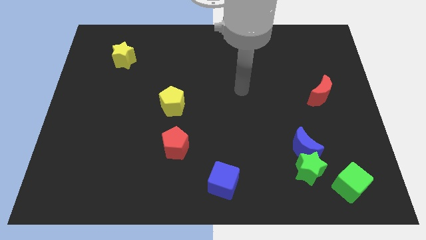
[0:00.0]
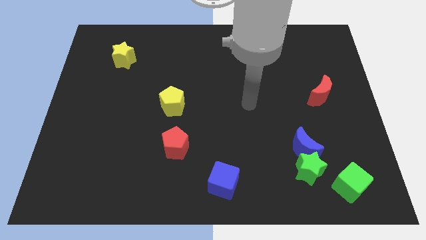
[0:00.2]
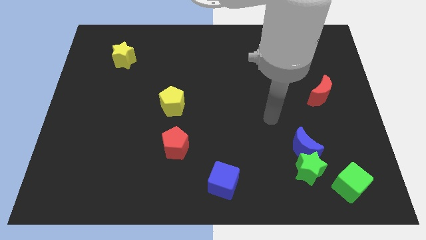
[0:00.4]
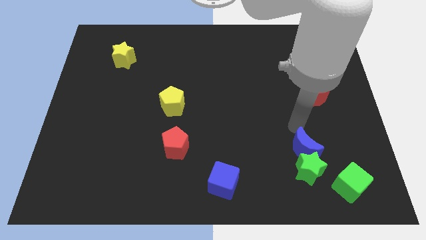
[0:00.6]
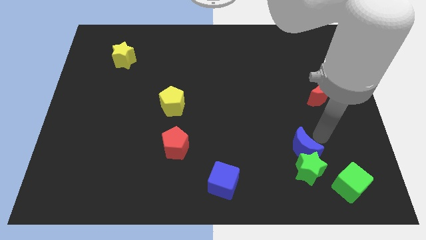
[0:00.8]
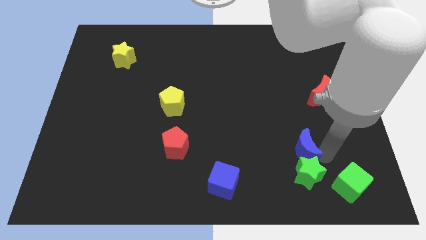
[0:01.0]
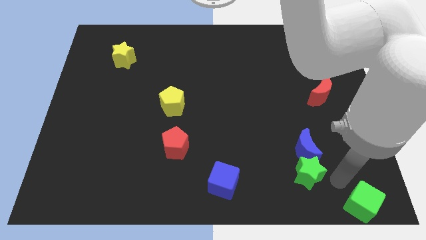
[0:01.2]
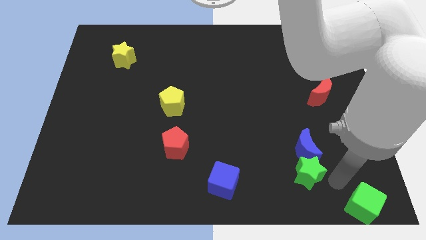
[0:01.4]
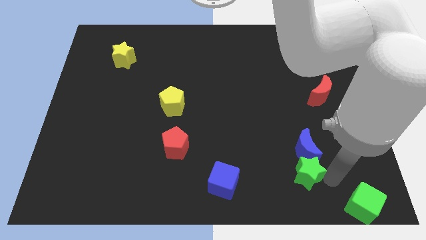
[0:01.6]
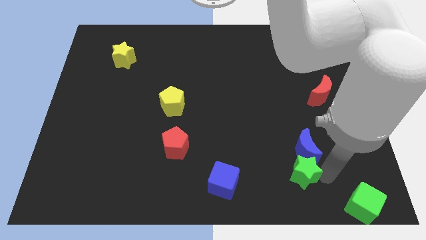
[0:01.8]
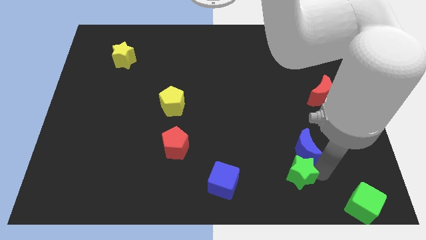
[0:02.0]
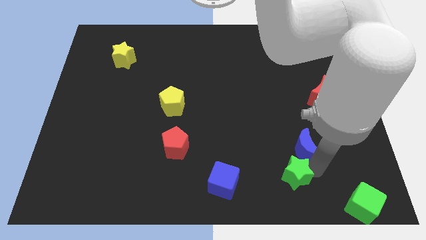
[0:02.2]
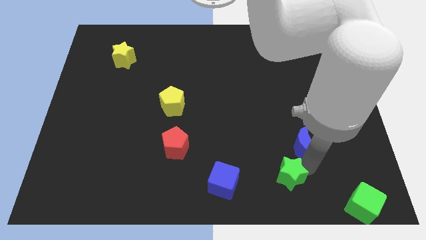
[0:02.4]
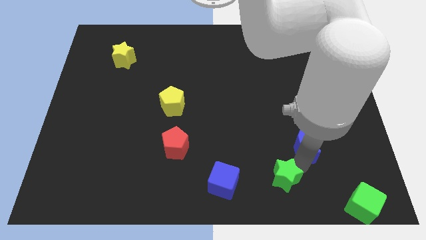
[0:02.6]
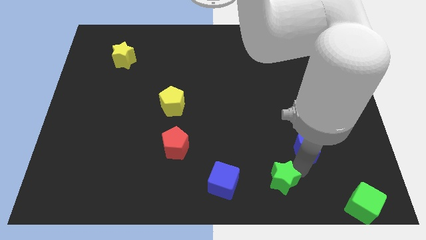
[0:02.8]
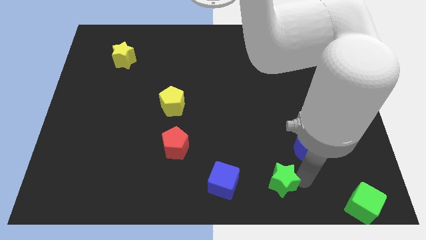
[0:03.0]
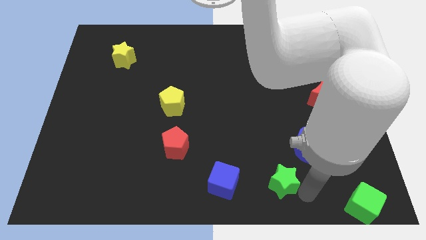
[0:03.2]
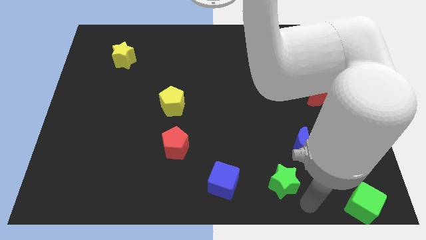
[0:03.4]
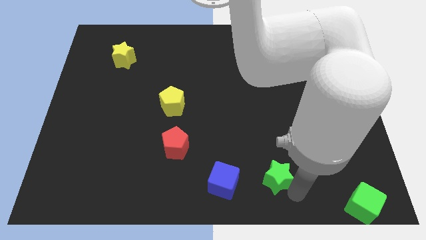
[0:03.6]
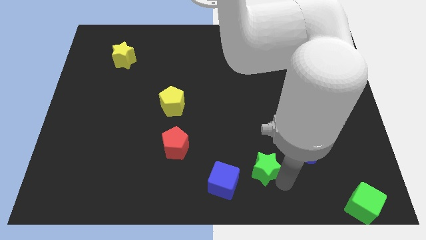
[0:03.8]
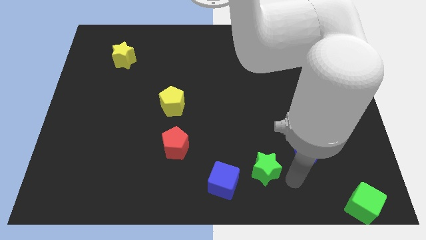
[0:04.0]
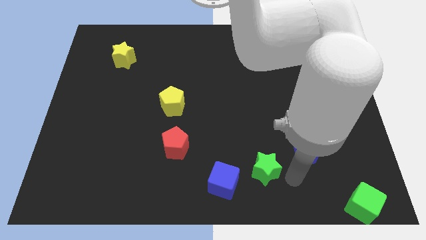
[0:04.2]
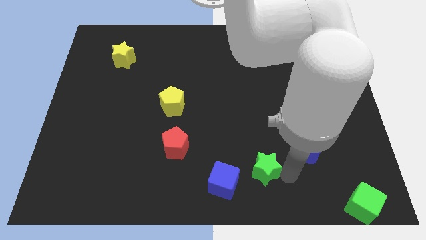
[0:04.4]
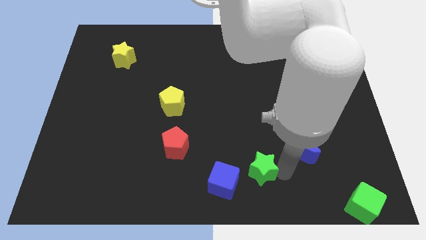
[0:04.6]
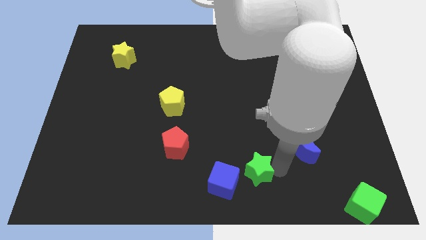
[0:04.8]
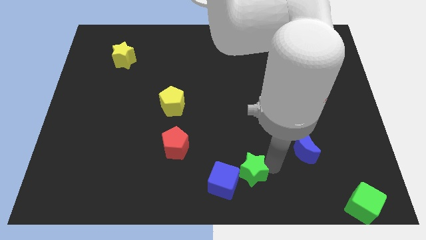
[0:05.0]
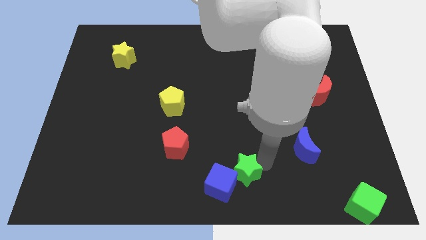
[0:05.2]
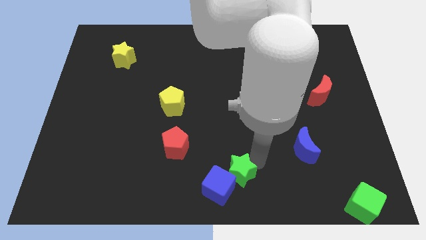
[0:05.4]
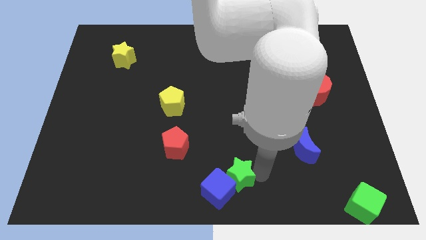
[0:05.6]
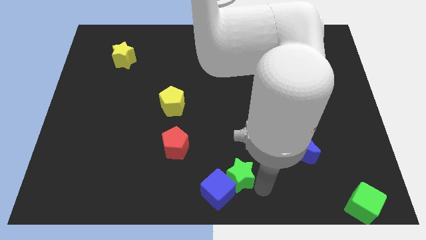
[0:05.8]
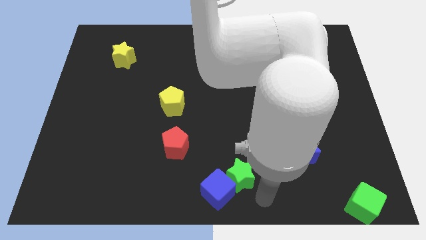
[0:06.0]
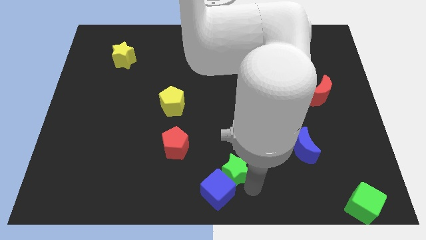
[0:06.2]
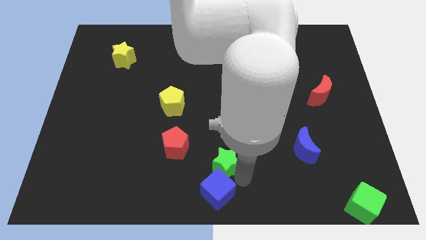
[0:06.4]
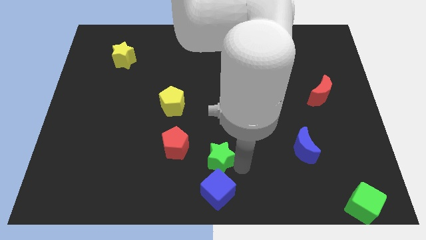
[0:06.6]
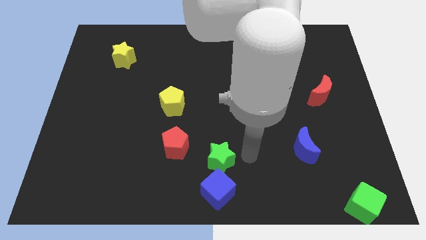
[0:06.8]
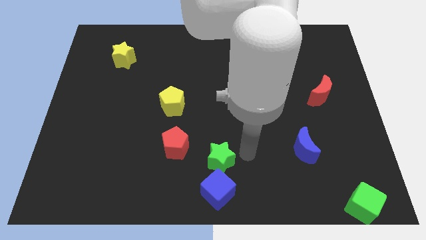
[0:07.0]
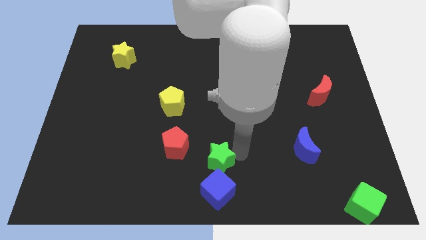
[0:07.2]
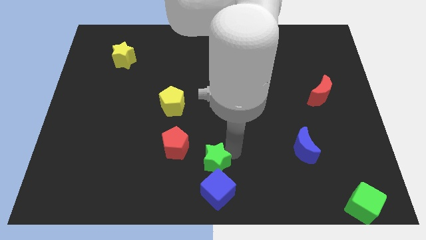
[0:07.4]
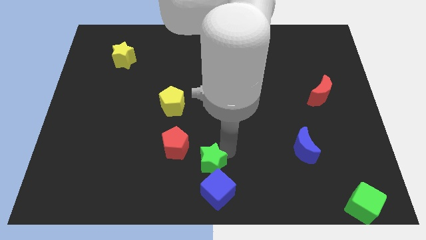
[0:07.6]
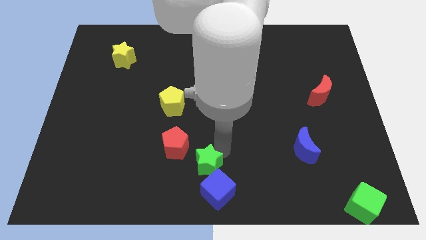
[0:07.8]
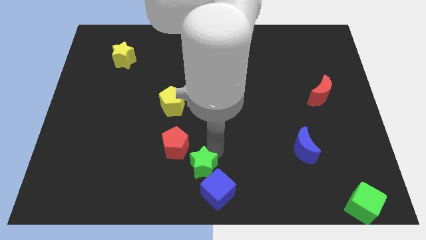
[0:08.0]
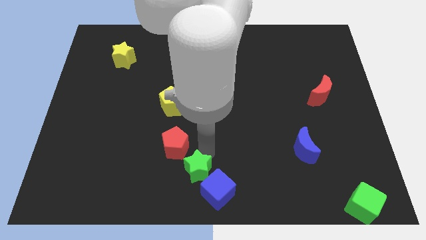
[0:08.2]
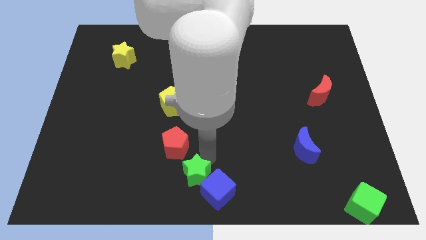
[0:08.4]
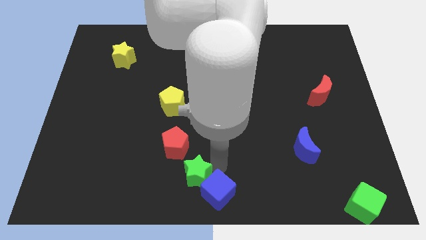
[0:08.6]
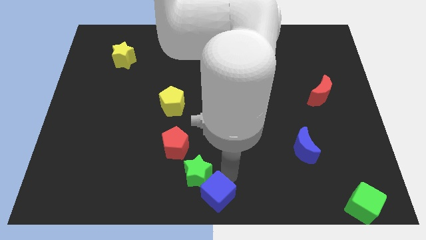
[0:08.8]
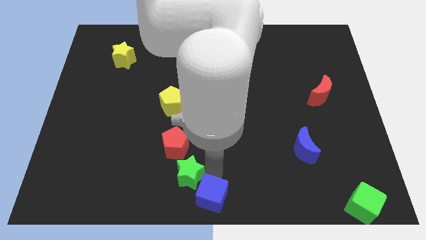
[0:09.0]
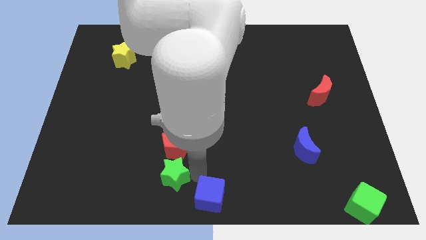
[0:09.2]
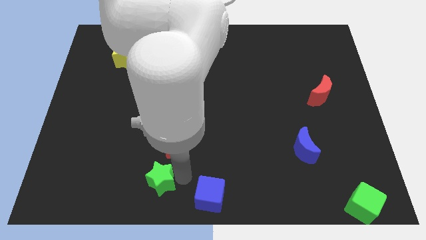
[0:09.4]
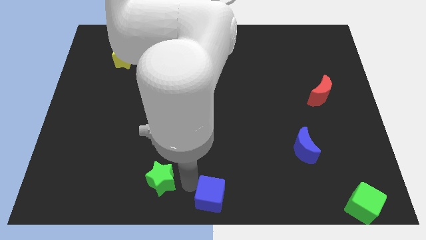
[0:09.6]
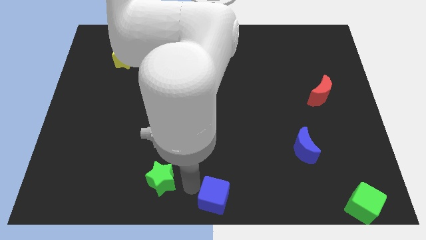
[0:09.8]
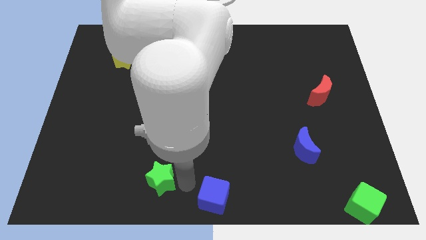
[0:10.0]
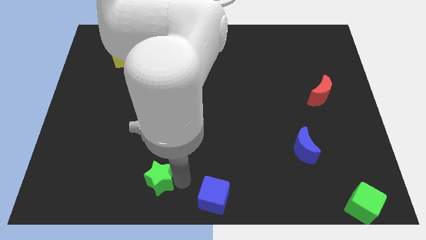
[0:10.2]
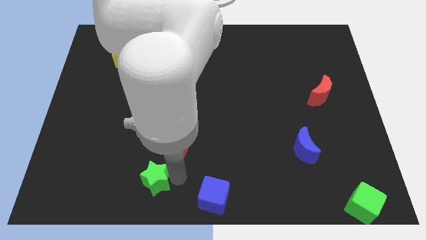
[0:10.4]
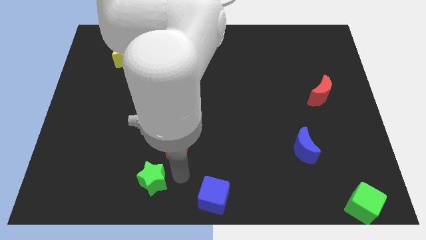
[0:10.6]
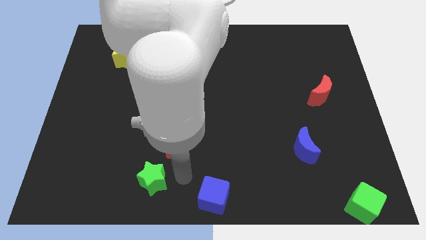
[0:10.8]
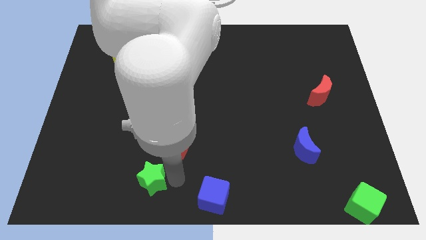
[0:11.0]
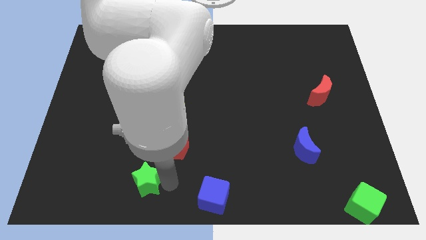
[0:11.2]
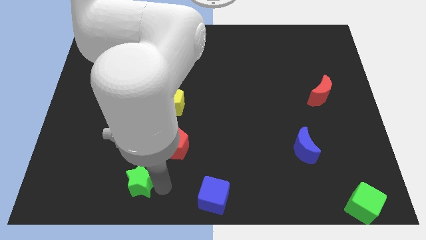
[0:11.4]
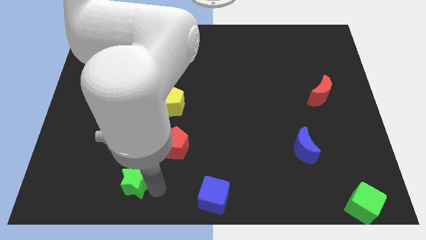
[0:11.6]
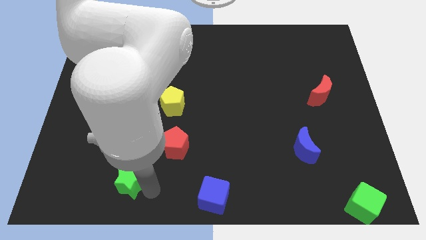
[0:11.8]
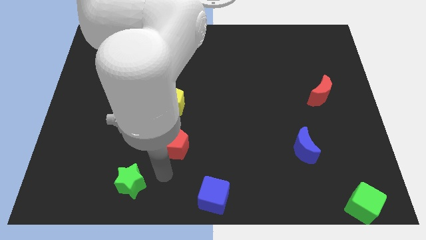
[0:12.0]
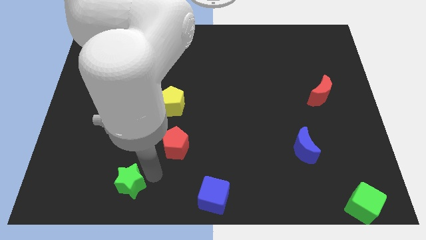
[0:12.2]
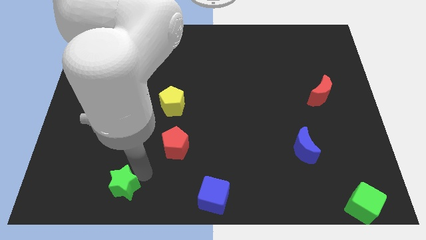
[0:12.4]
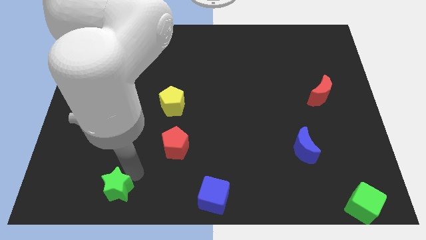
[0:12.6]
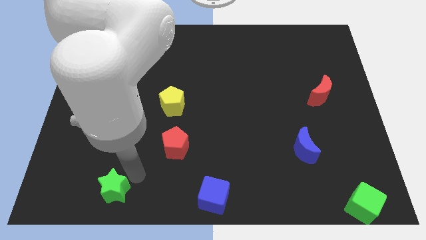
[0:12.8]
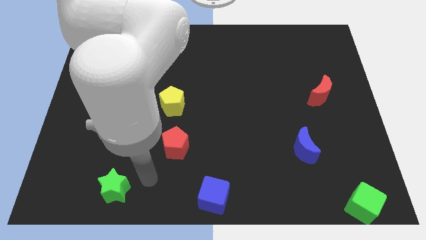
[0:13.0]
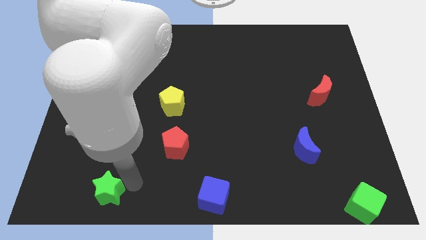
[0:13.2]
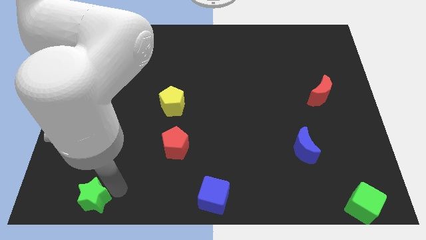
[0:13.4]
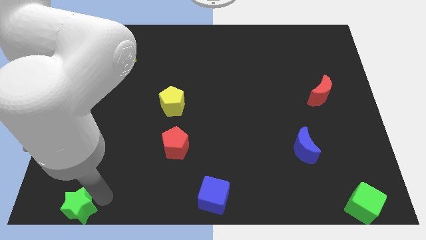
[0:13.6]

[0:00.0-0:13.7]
move the green star to the lower left corner
